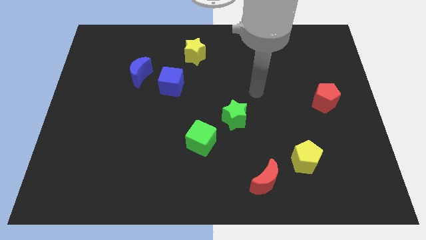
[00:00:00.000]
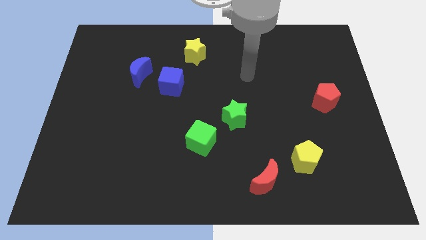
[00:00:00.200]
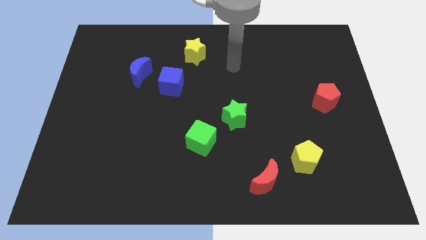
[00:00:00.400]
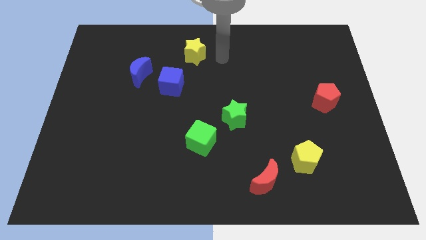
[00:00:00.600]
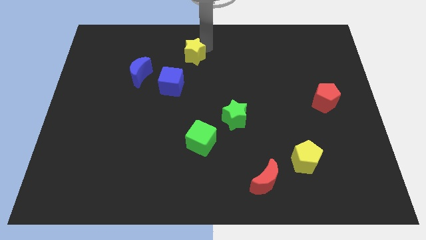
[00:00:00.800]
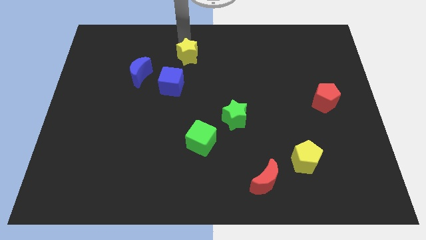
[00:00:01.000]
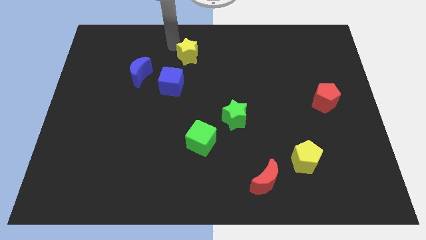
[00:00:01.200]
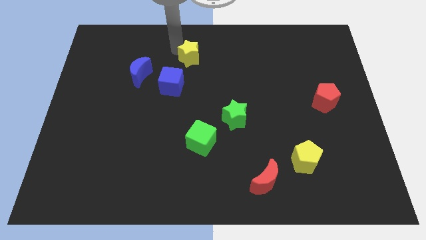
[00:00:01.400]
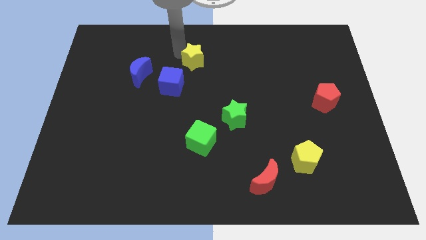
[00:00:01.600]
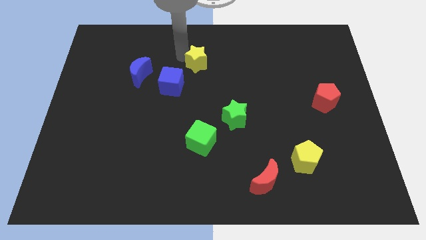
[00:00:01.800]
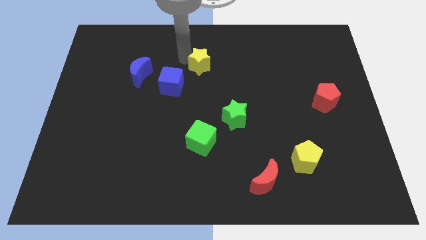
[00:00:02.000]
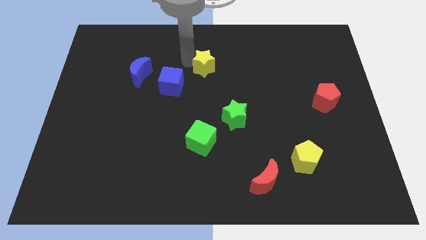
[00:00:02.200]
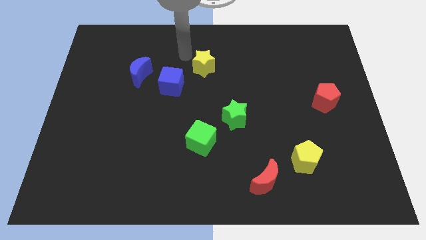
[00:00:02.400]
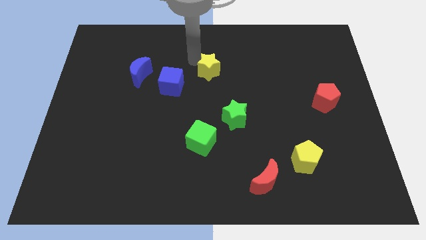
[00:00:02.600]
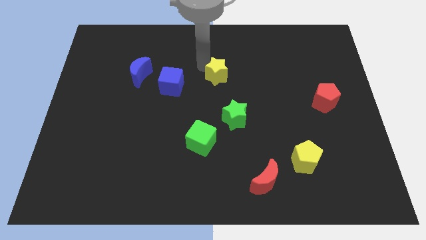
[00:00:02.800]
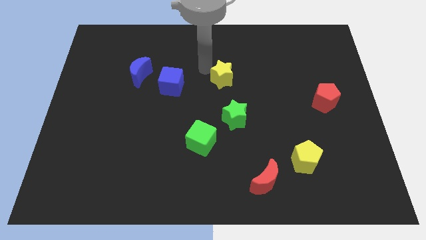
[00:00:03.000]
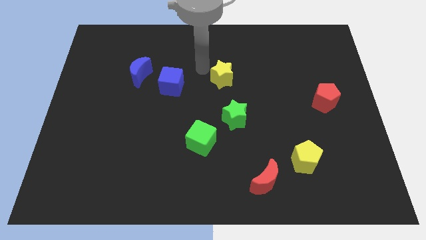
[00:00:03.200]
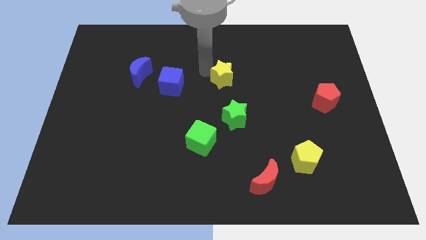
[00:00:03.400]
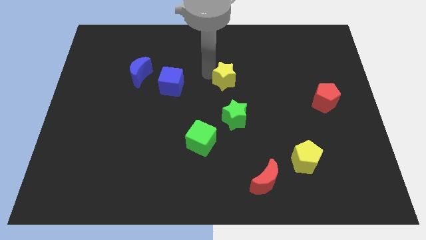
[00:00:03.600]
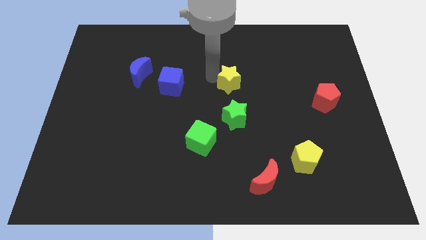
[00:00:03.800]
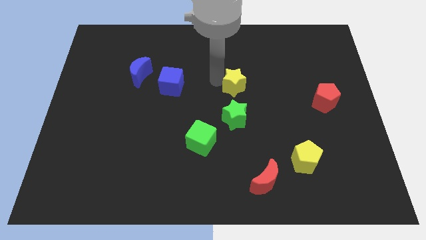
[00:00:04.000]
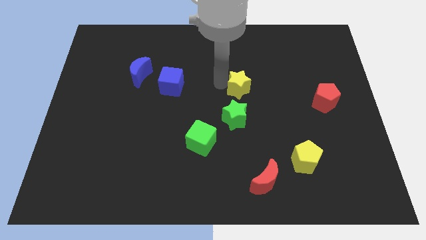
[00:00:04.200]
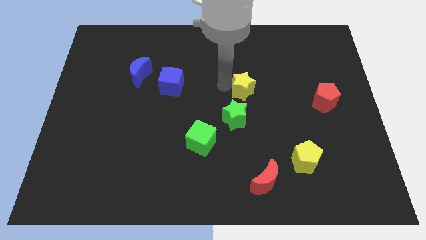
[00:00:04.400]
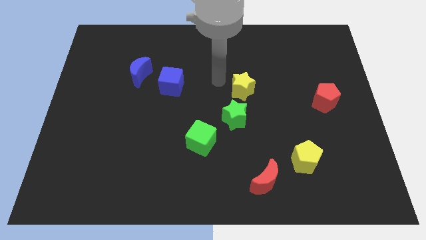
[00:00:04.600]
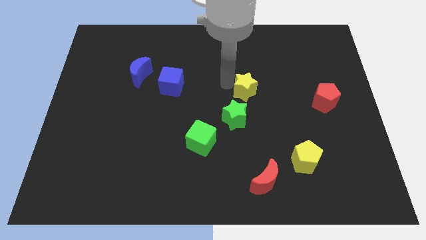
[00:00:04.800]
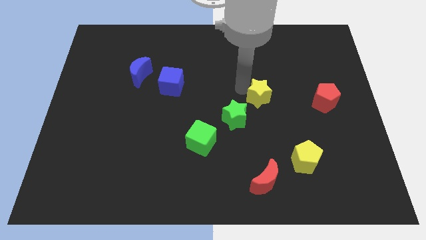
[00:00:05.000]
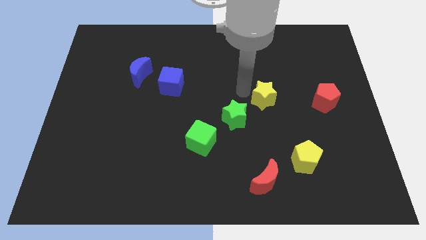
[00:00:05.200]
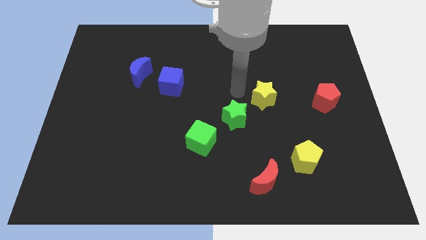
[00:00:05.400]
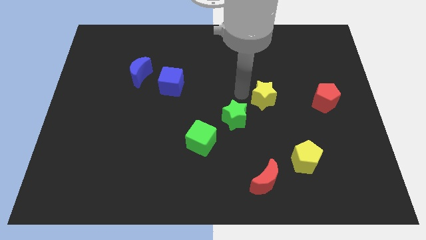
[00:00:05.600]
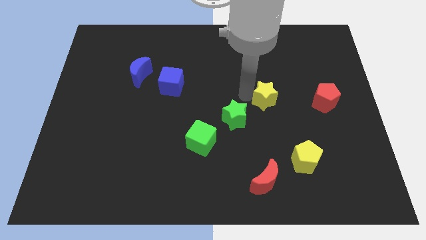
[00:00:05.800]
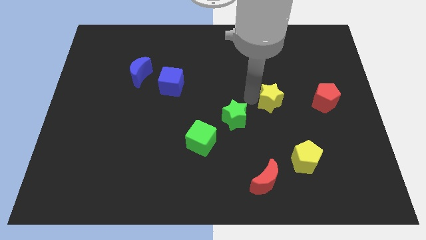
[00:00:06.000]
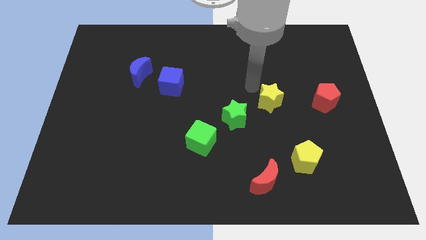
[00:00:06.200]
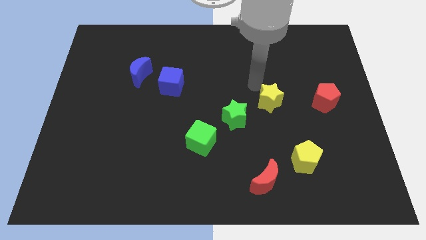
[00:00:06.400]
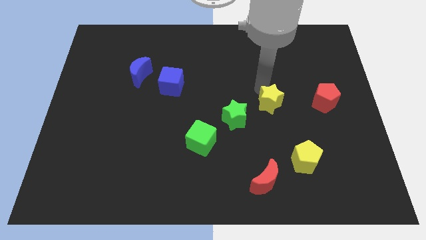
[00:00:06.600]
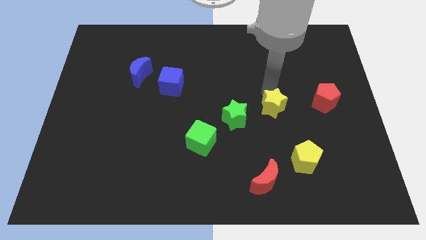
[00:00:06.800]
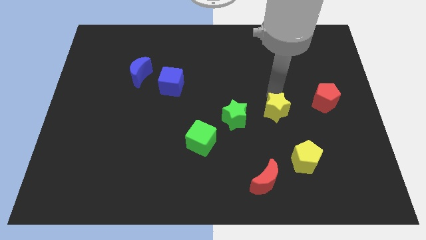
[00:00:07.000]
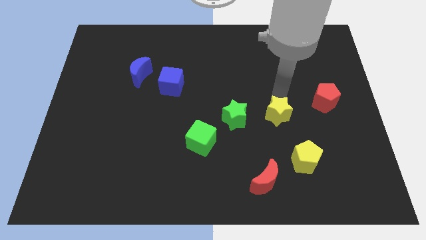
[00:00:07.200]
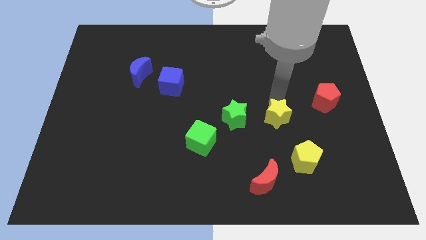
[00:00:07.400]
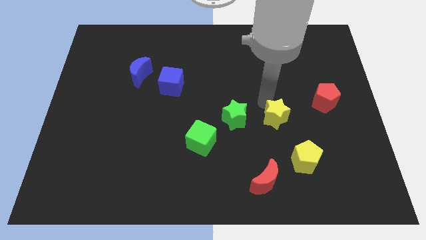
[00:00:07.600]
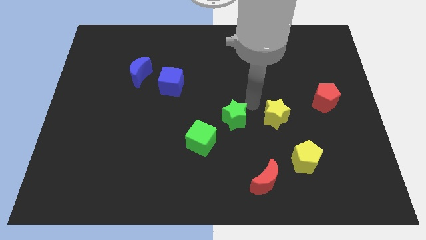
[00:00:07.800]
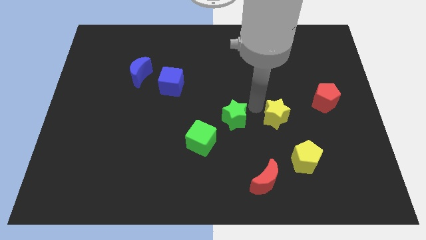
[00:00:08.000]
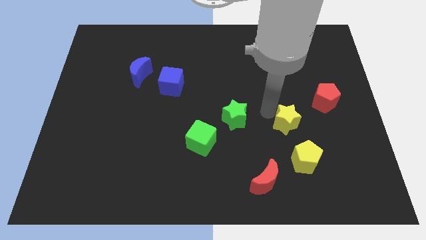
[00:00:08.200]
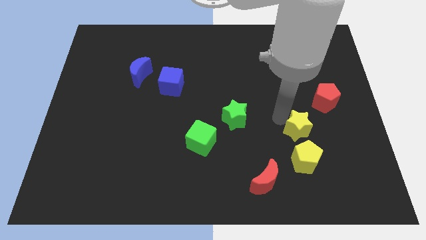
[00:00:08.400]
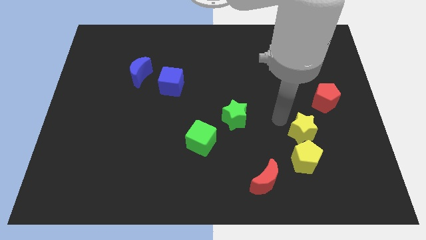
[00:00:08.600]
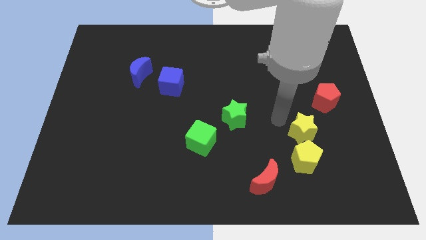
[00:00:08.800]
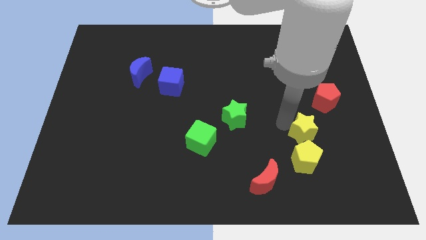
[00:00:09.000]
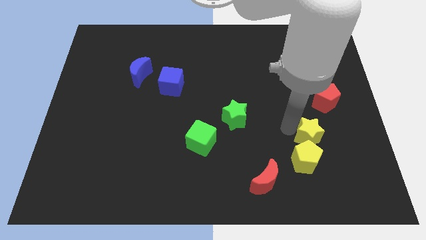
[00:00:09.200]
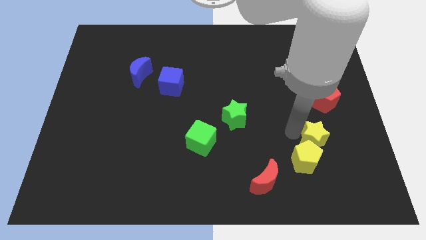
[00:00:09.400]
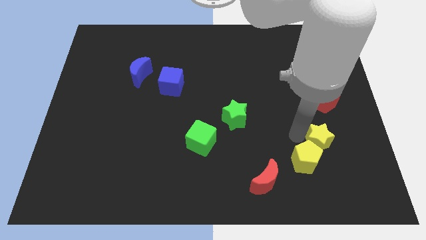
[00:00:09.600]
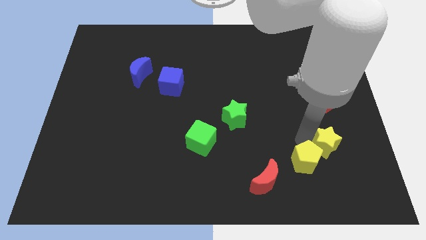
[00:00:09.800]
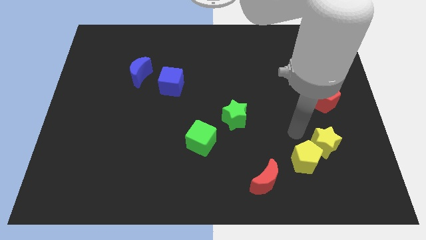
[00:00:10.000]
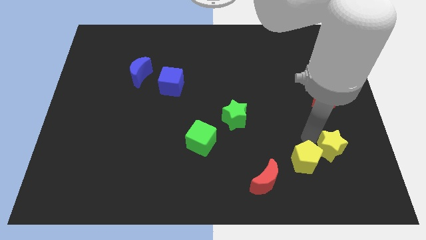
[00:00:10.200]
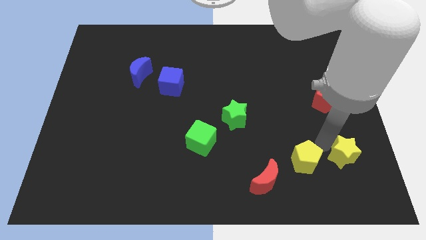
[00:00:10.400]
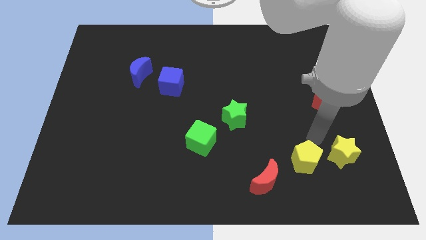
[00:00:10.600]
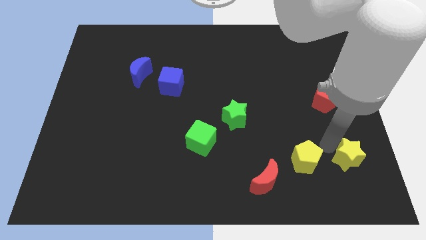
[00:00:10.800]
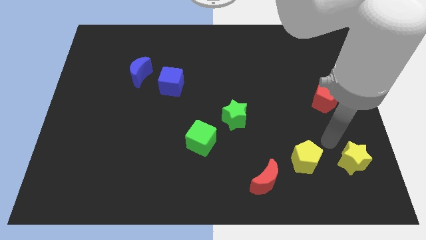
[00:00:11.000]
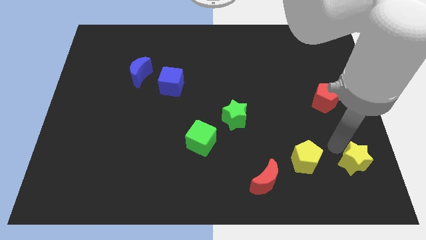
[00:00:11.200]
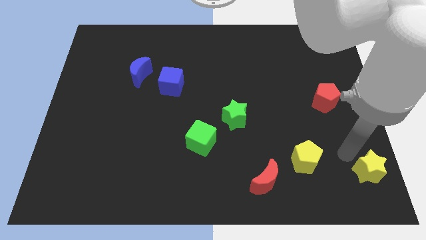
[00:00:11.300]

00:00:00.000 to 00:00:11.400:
slide the yellow star to the bottom right corner
